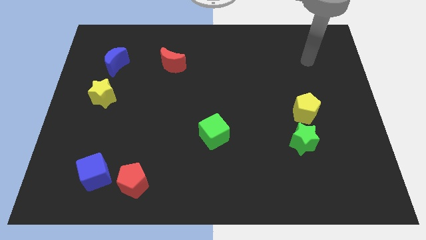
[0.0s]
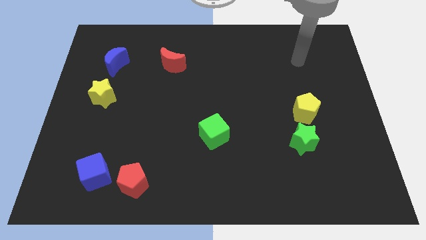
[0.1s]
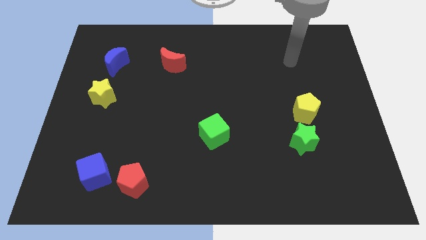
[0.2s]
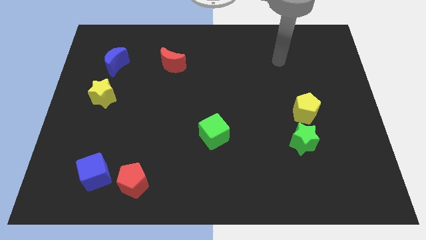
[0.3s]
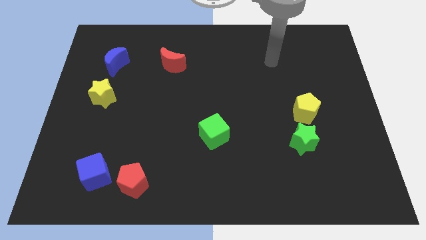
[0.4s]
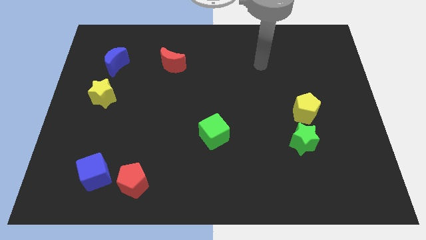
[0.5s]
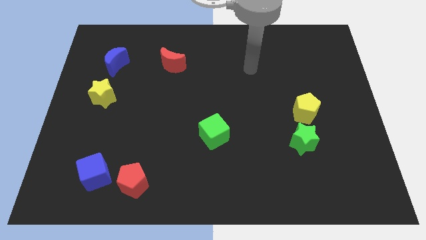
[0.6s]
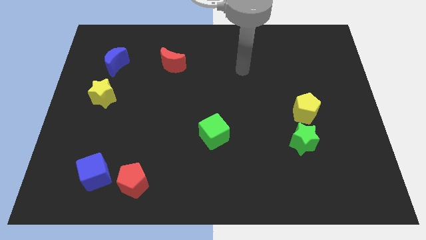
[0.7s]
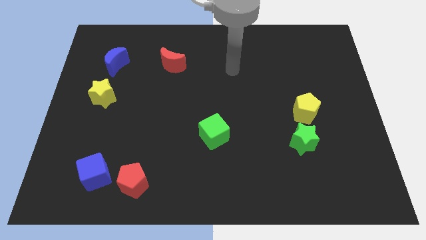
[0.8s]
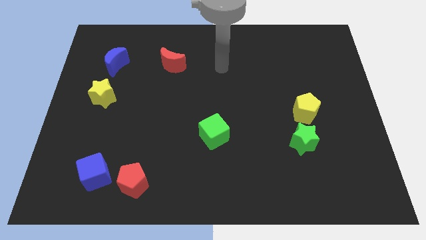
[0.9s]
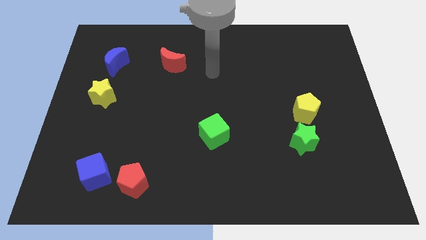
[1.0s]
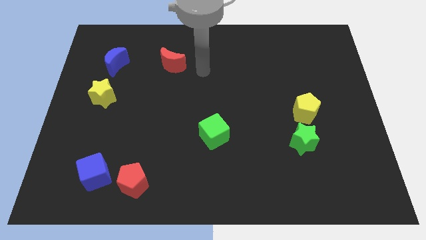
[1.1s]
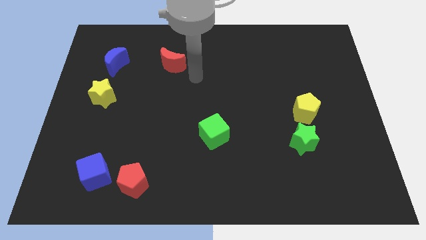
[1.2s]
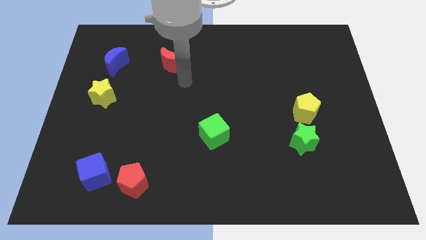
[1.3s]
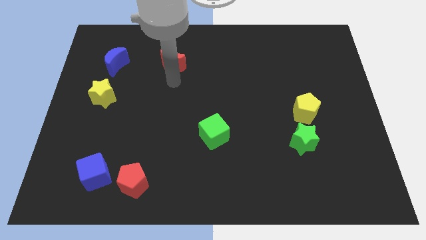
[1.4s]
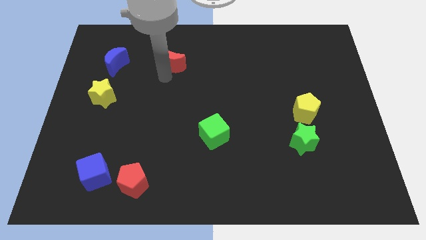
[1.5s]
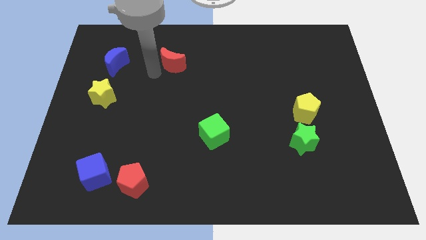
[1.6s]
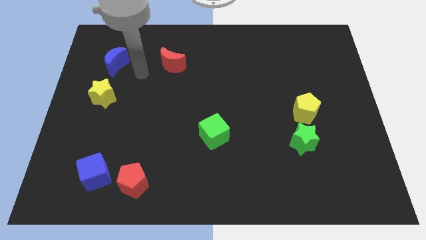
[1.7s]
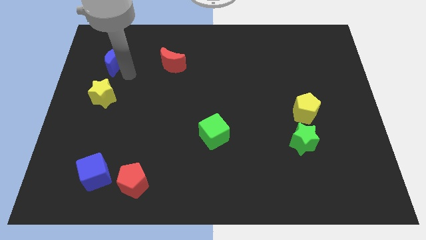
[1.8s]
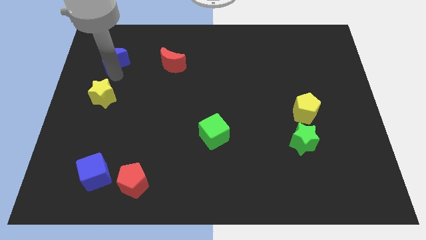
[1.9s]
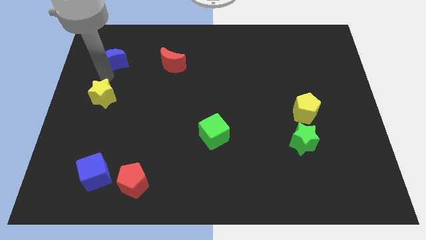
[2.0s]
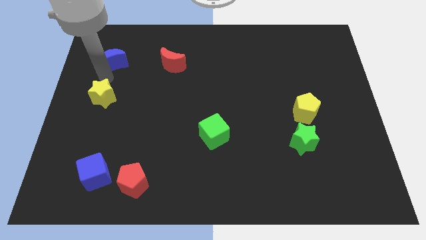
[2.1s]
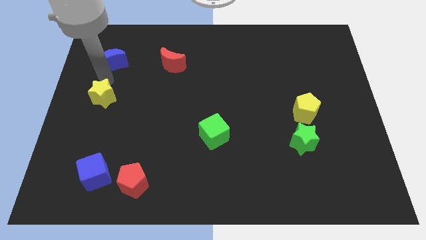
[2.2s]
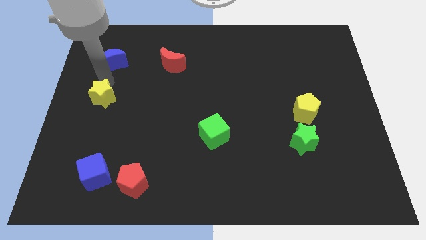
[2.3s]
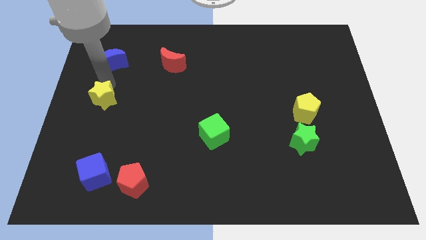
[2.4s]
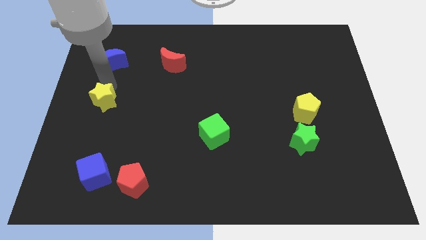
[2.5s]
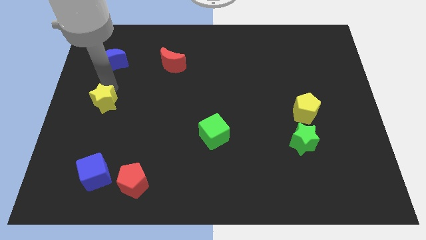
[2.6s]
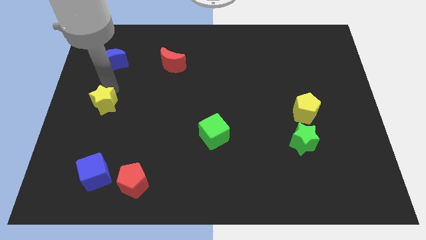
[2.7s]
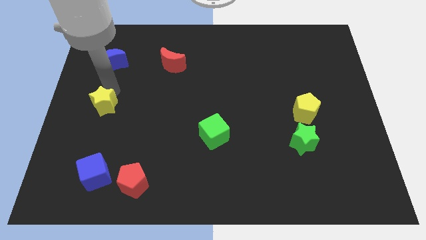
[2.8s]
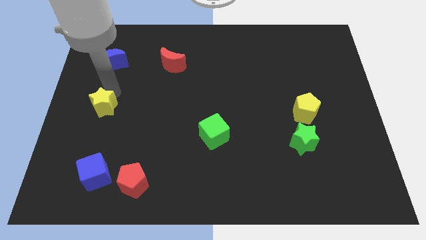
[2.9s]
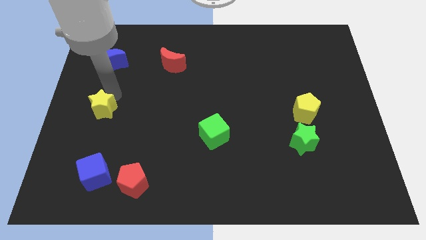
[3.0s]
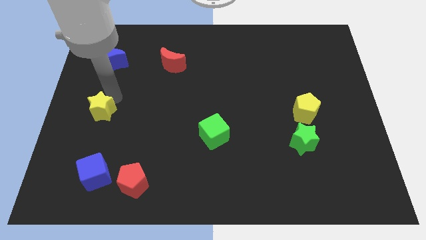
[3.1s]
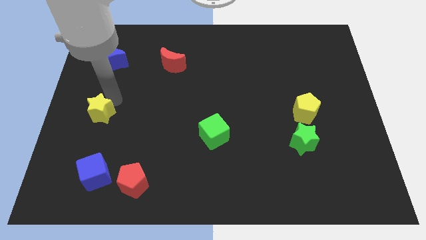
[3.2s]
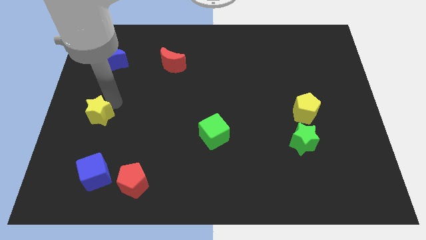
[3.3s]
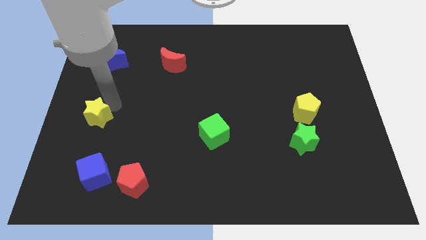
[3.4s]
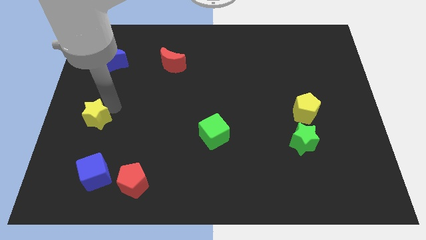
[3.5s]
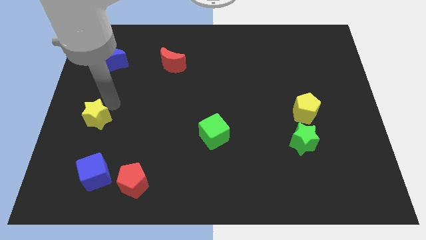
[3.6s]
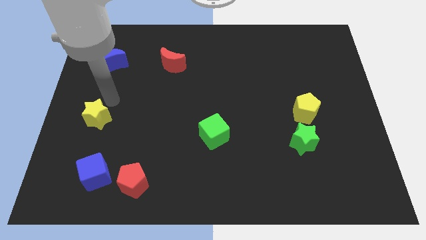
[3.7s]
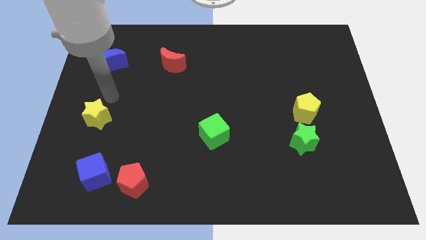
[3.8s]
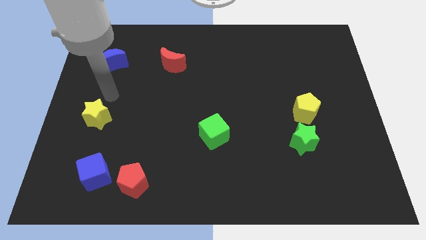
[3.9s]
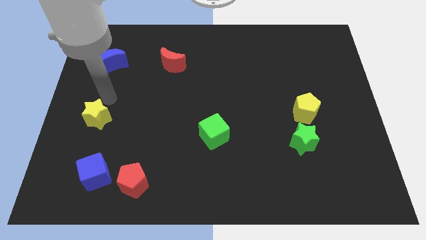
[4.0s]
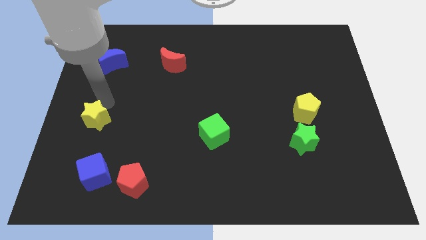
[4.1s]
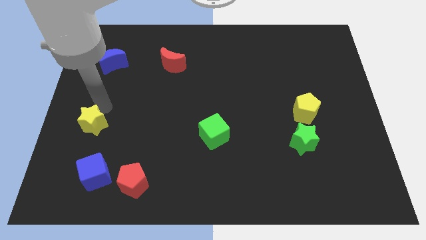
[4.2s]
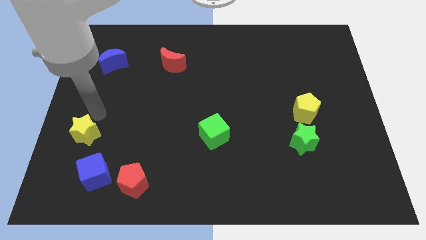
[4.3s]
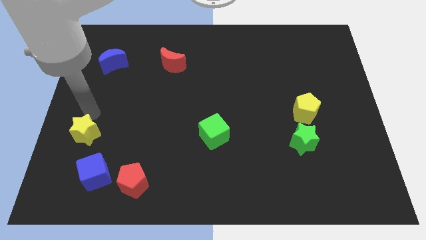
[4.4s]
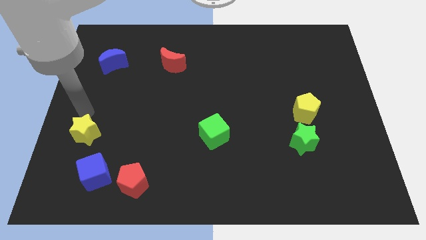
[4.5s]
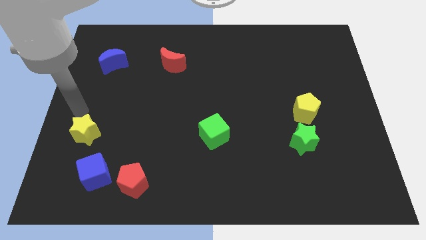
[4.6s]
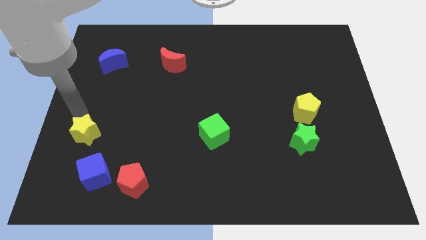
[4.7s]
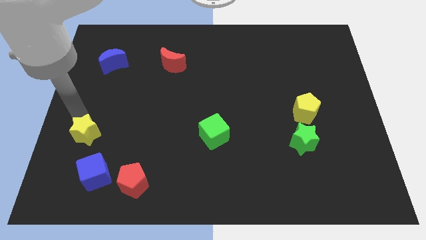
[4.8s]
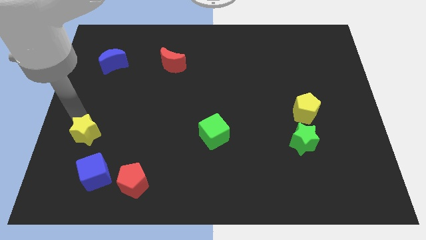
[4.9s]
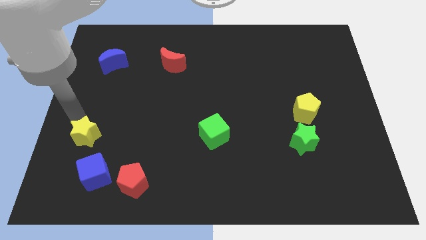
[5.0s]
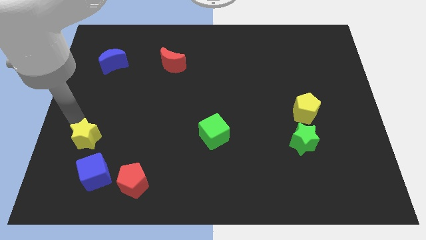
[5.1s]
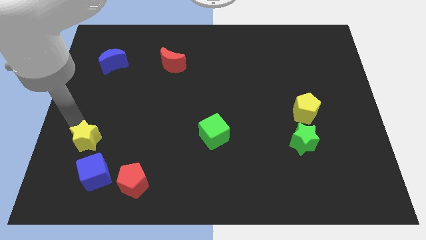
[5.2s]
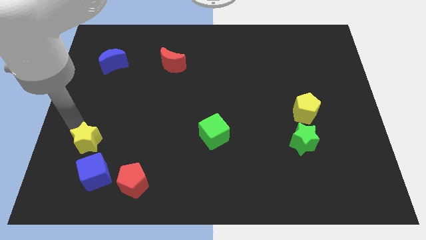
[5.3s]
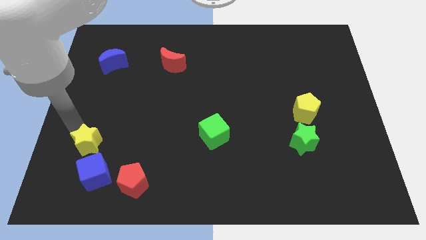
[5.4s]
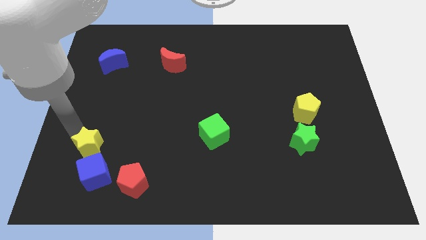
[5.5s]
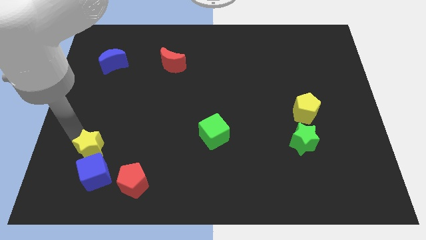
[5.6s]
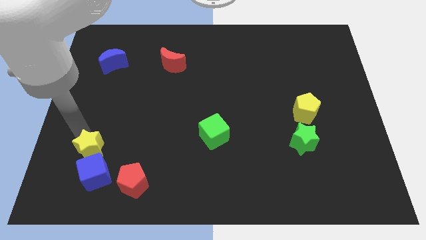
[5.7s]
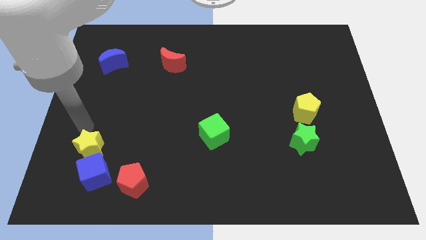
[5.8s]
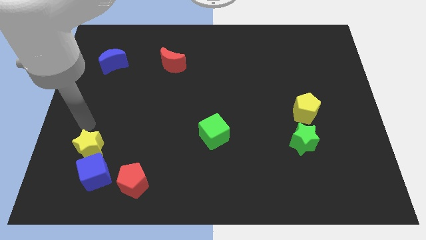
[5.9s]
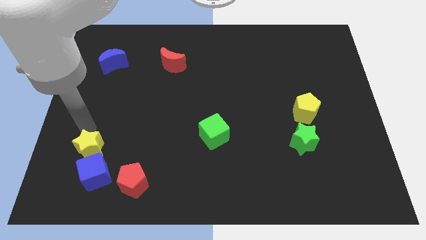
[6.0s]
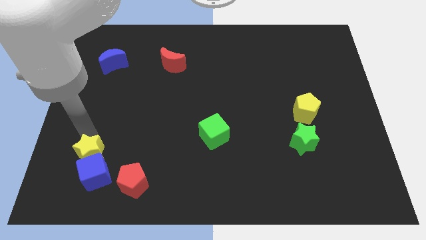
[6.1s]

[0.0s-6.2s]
move the yellow star next to the blue cube

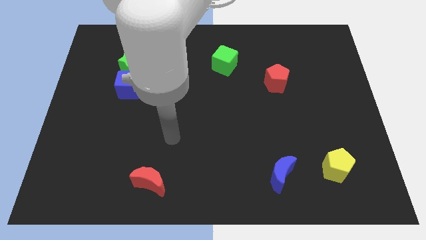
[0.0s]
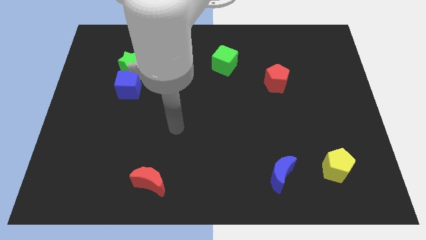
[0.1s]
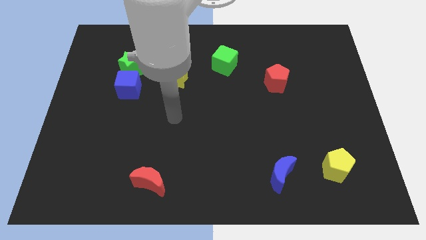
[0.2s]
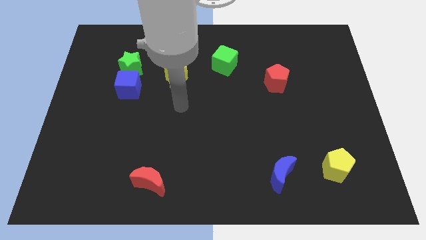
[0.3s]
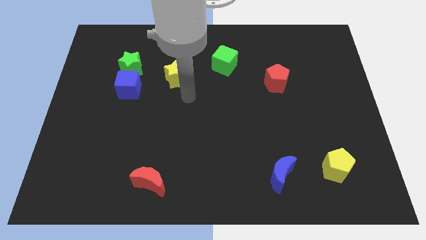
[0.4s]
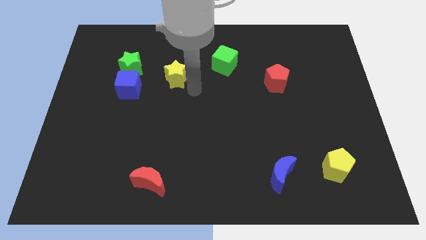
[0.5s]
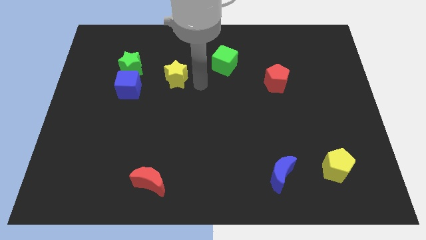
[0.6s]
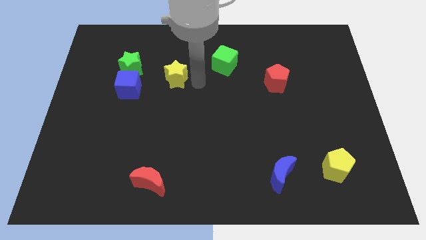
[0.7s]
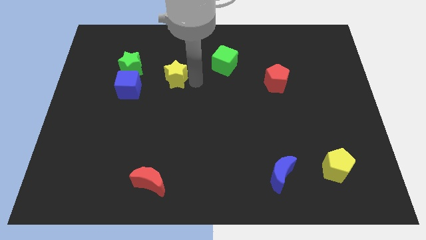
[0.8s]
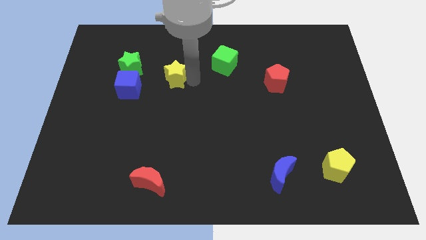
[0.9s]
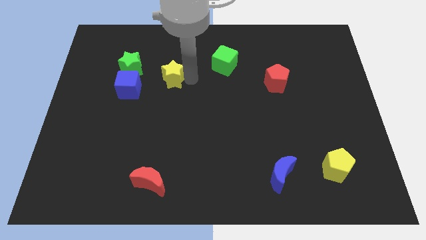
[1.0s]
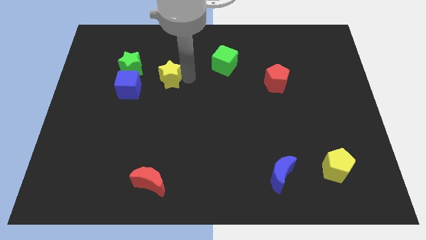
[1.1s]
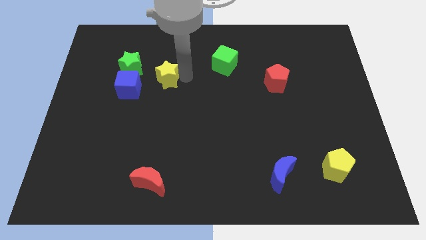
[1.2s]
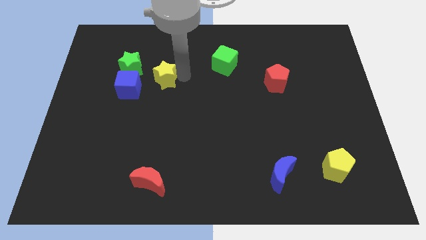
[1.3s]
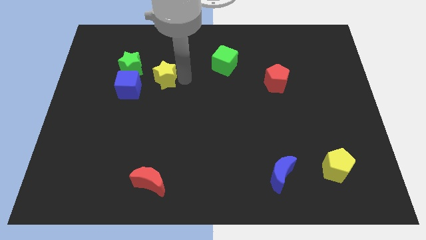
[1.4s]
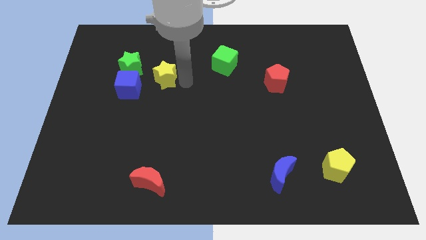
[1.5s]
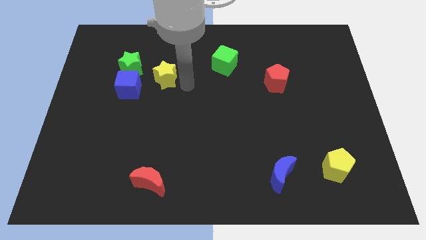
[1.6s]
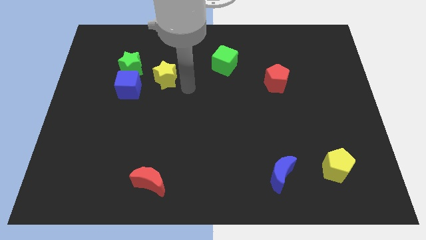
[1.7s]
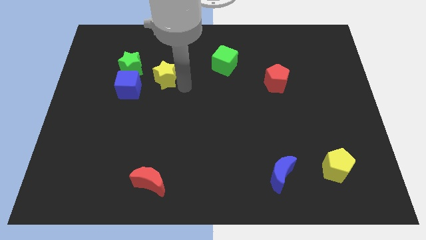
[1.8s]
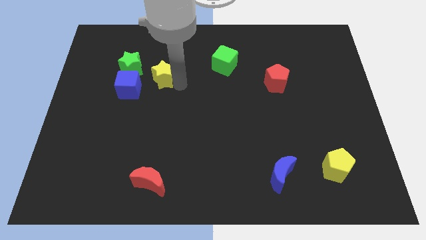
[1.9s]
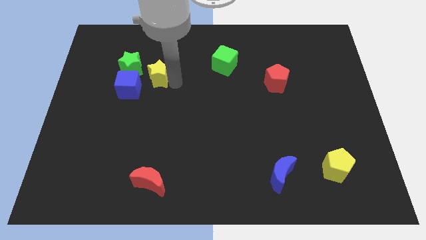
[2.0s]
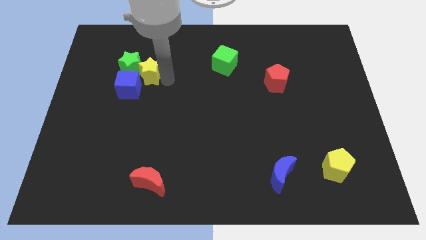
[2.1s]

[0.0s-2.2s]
slide the yellow star towards the green star
